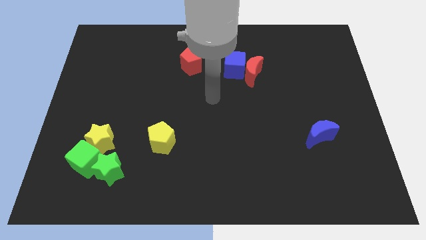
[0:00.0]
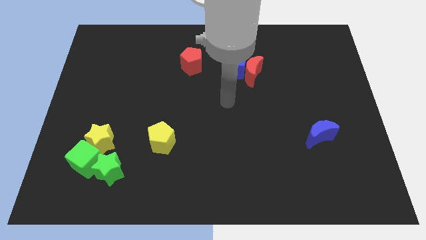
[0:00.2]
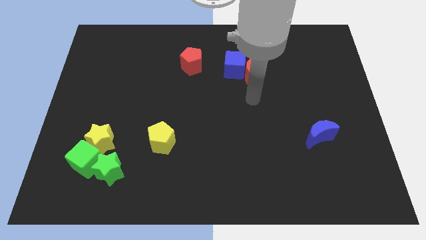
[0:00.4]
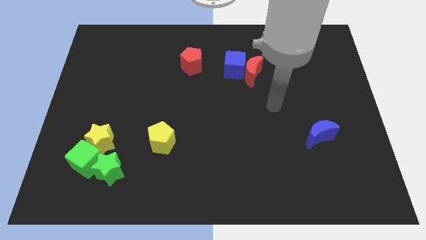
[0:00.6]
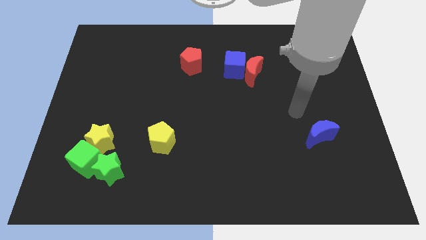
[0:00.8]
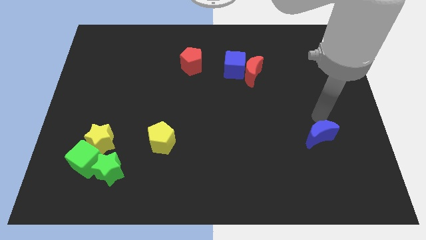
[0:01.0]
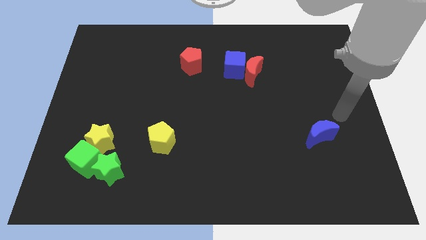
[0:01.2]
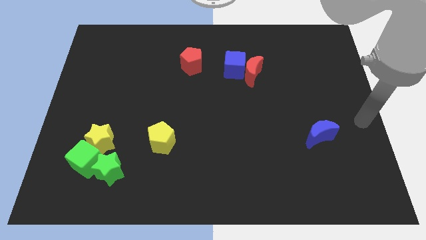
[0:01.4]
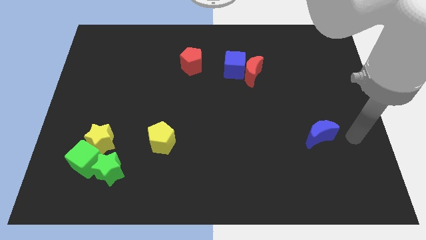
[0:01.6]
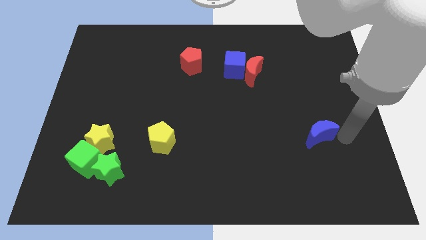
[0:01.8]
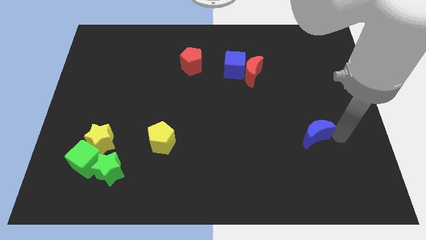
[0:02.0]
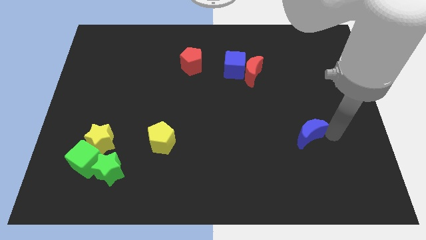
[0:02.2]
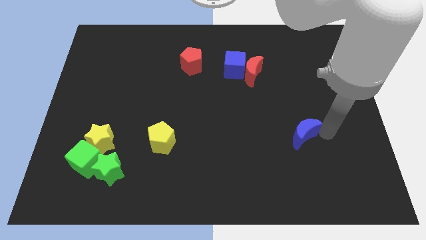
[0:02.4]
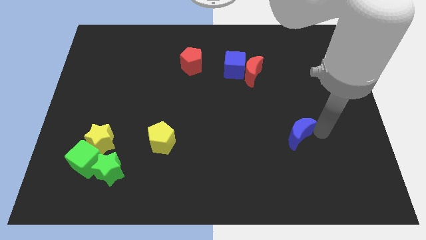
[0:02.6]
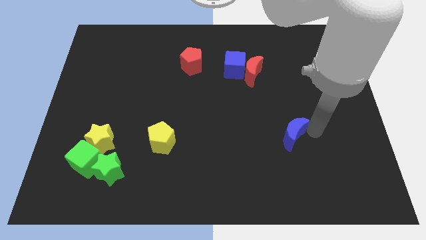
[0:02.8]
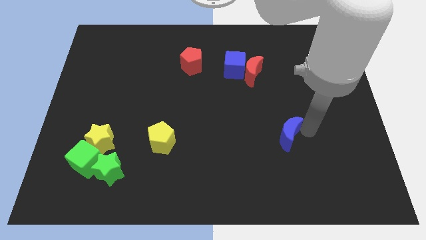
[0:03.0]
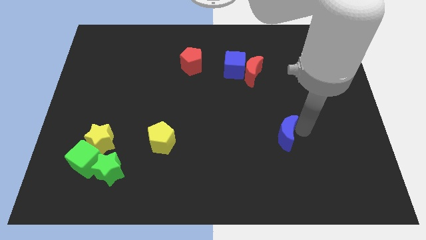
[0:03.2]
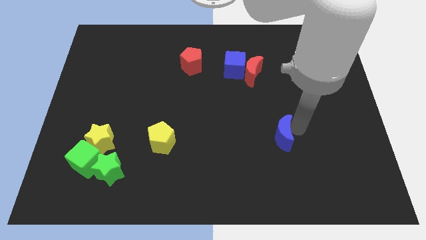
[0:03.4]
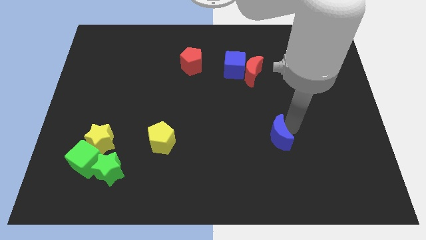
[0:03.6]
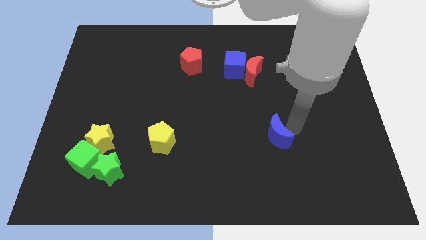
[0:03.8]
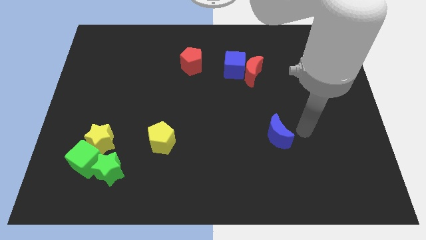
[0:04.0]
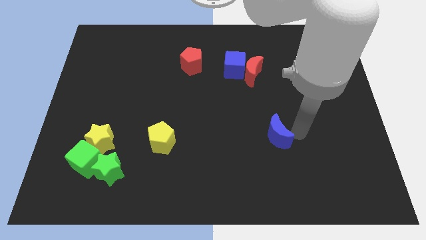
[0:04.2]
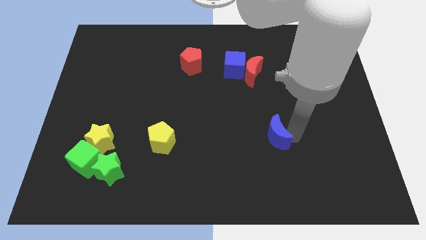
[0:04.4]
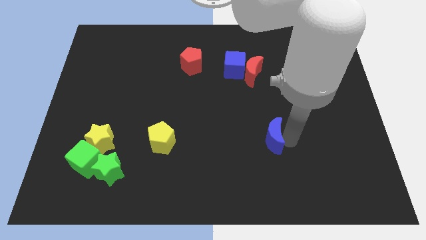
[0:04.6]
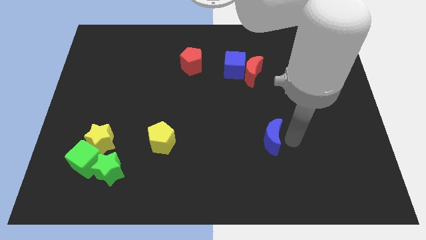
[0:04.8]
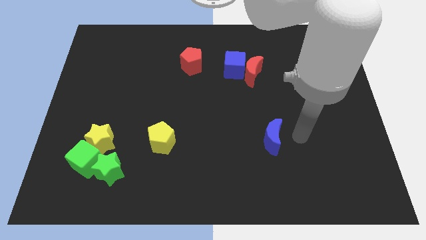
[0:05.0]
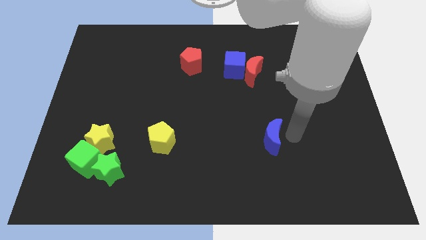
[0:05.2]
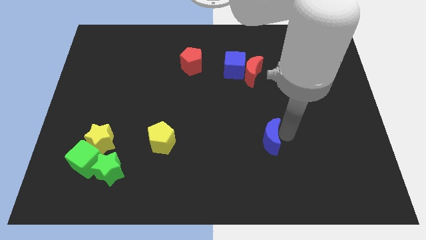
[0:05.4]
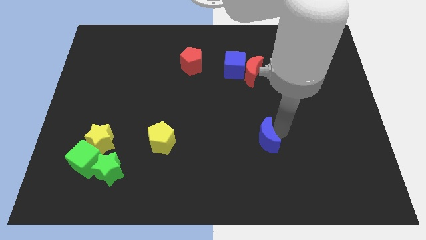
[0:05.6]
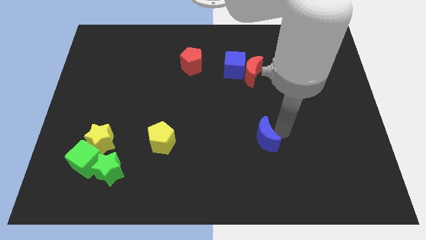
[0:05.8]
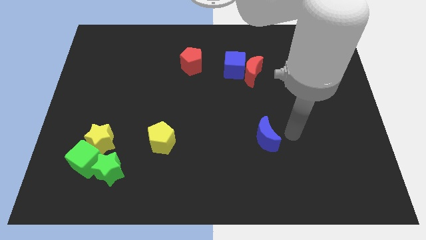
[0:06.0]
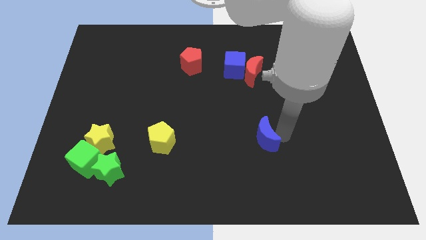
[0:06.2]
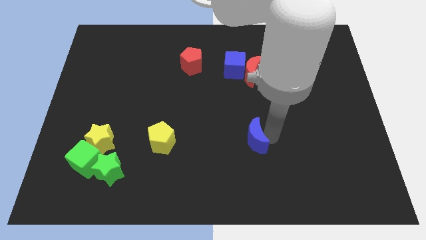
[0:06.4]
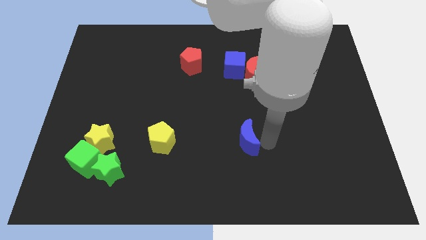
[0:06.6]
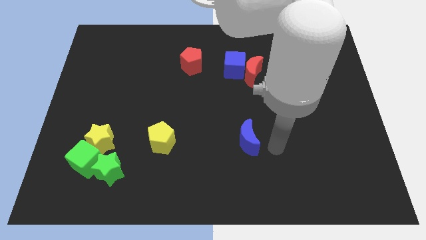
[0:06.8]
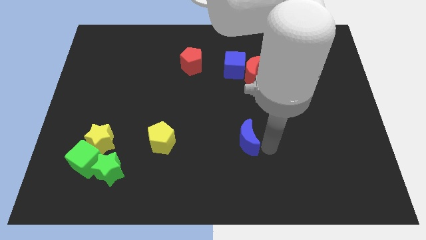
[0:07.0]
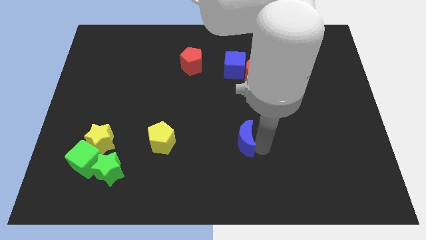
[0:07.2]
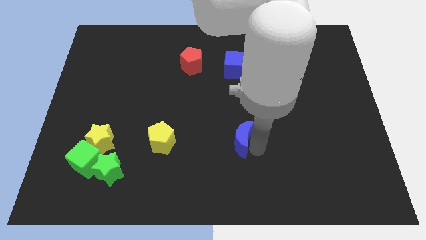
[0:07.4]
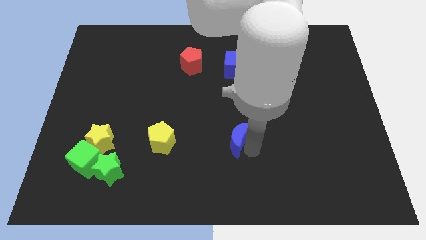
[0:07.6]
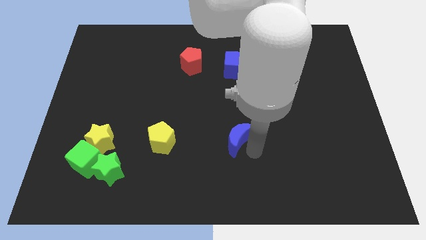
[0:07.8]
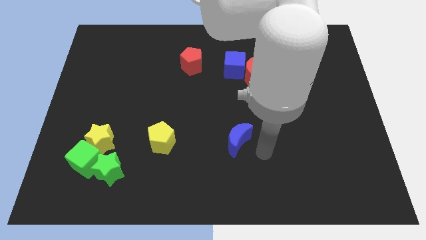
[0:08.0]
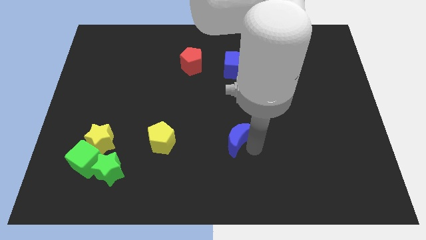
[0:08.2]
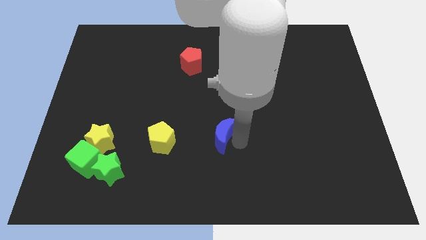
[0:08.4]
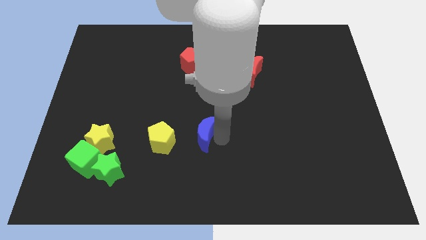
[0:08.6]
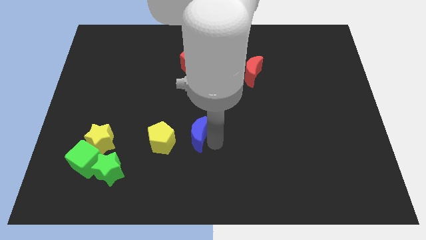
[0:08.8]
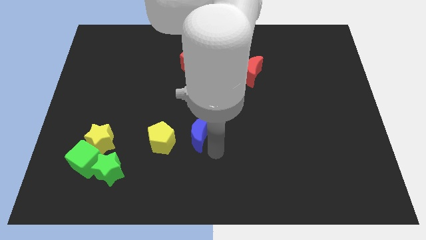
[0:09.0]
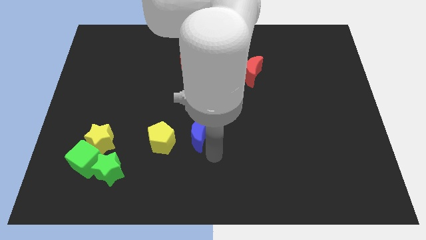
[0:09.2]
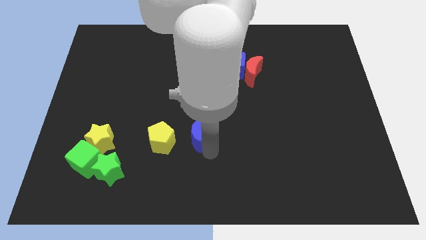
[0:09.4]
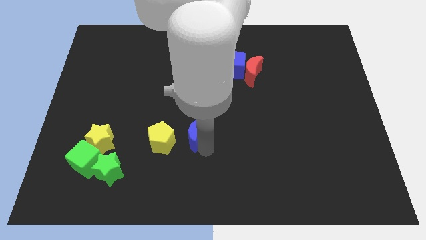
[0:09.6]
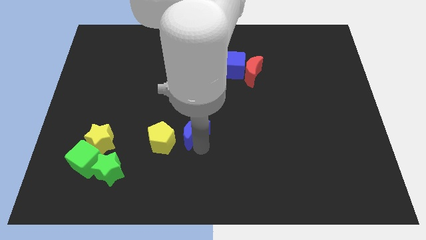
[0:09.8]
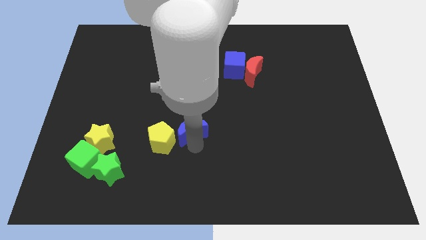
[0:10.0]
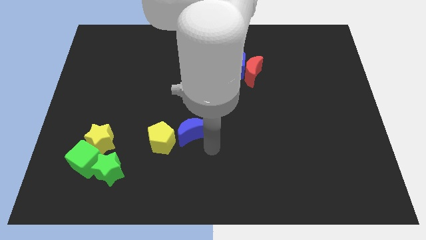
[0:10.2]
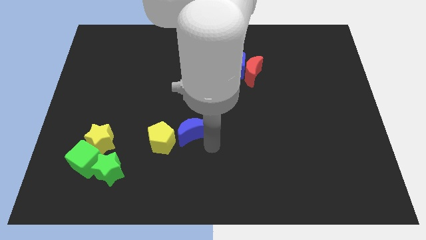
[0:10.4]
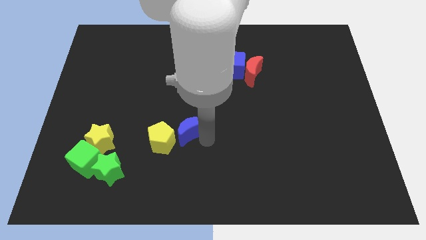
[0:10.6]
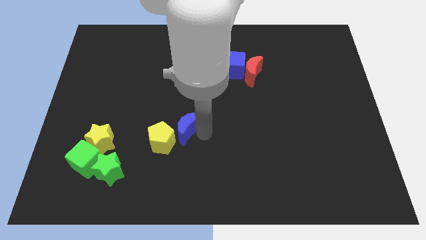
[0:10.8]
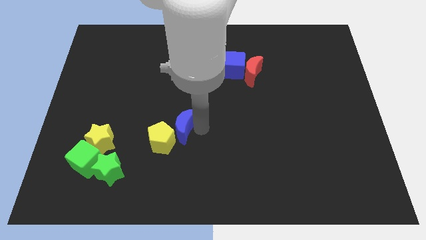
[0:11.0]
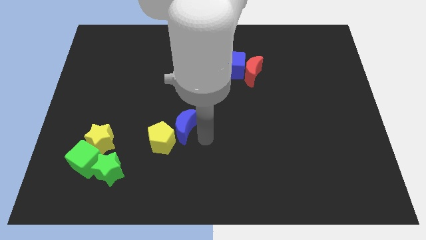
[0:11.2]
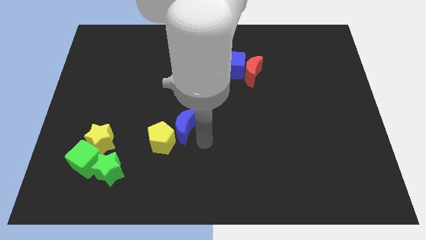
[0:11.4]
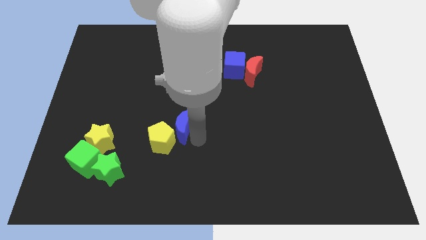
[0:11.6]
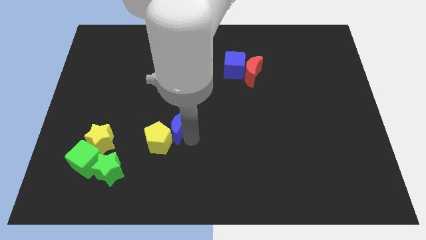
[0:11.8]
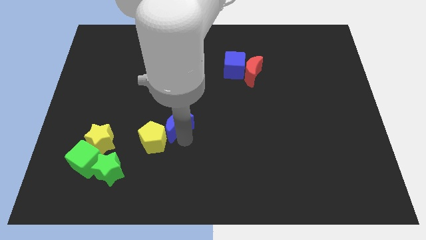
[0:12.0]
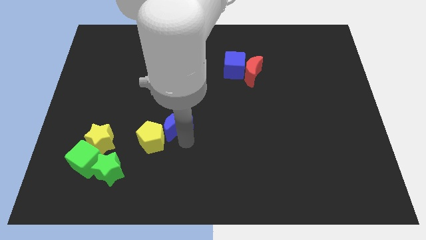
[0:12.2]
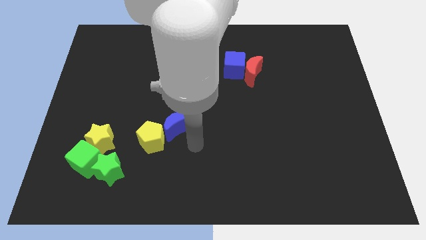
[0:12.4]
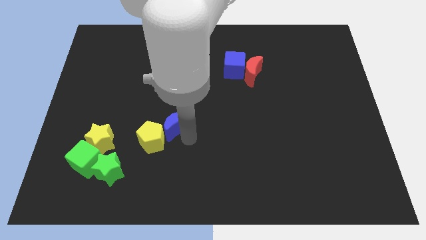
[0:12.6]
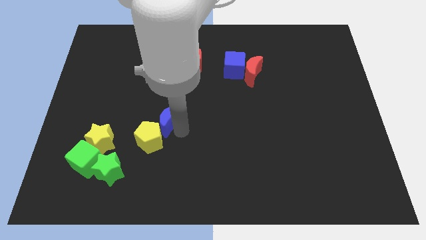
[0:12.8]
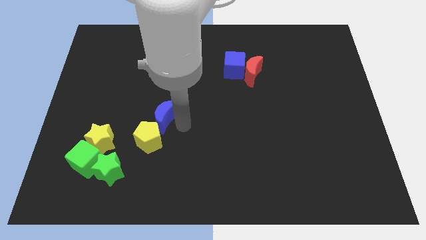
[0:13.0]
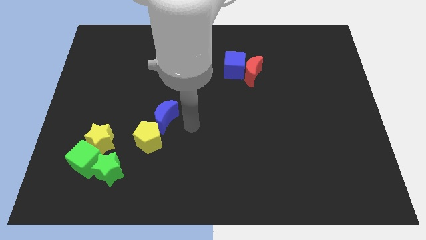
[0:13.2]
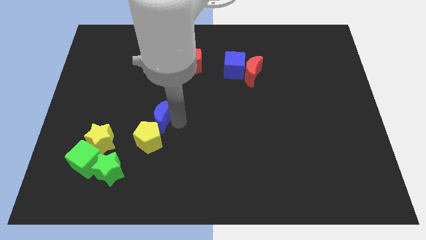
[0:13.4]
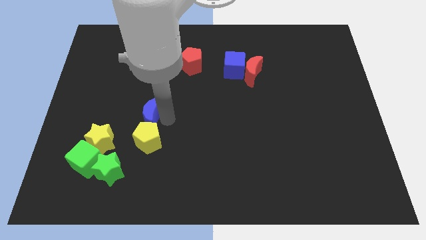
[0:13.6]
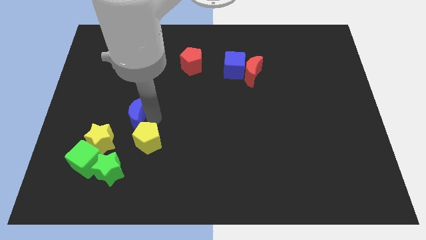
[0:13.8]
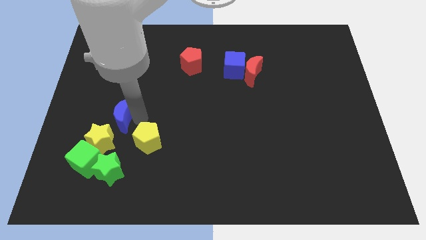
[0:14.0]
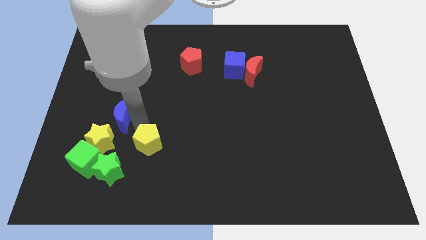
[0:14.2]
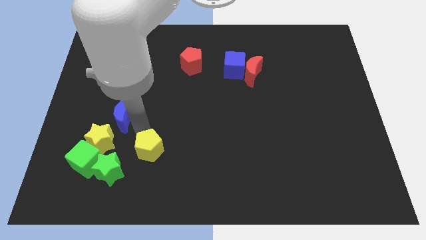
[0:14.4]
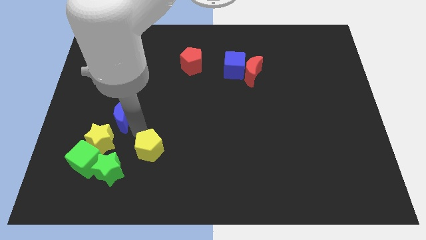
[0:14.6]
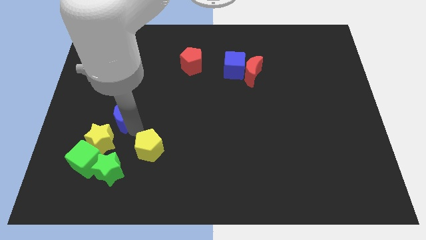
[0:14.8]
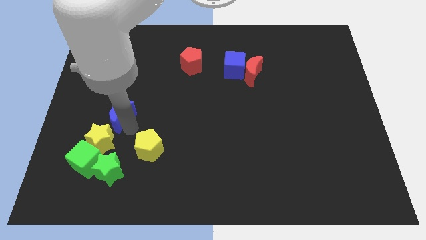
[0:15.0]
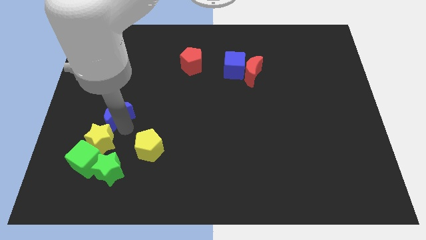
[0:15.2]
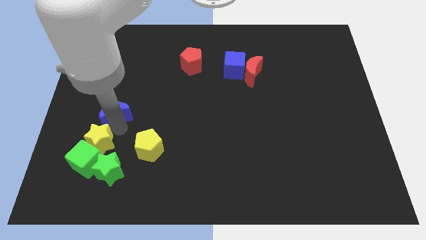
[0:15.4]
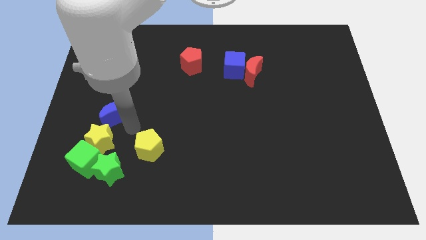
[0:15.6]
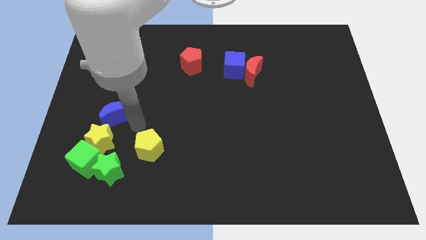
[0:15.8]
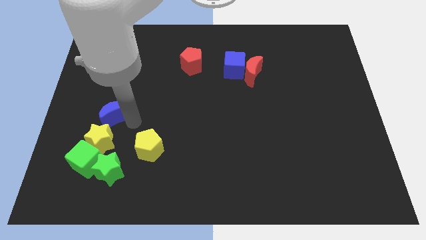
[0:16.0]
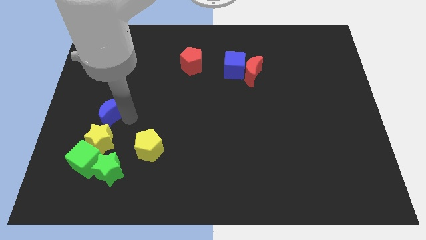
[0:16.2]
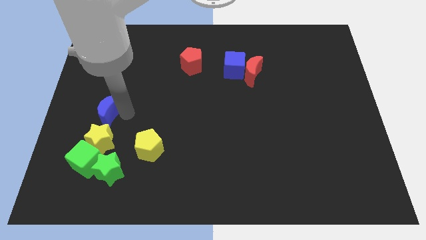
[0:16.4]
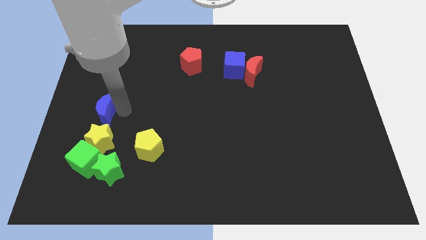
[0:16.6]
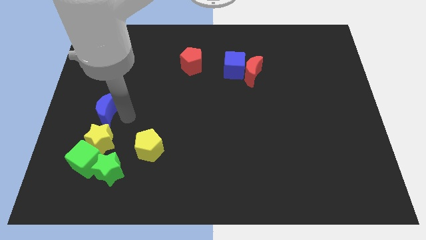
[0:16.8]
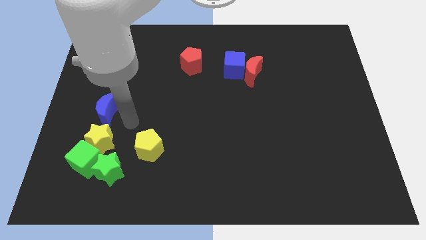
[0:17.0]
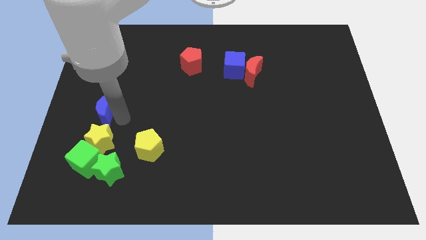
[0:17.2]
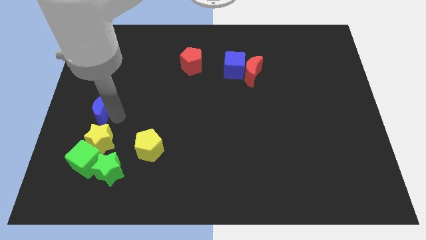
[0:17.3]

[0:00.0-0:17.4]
slide the blue moon to the left side of the board
